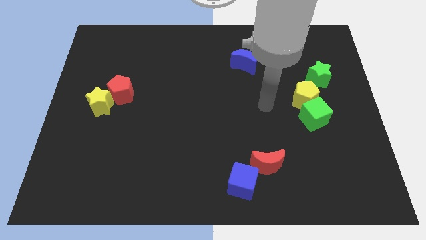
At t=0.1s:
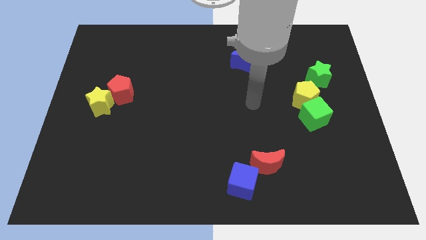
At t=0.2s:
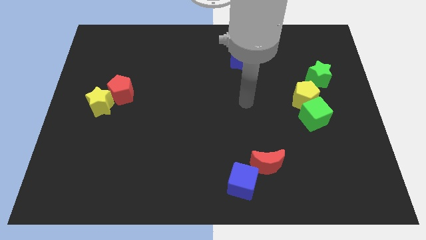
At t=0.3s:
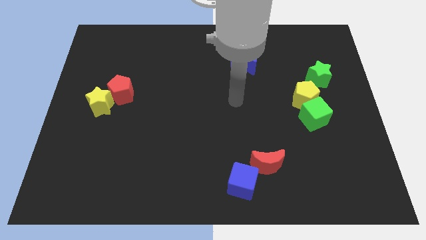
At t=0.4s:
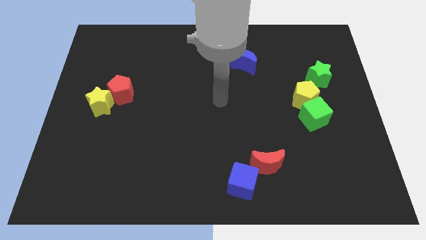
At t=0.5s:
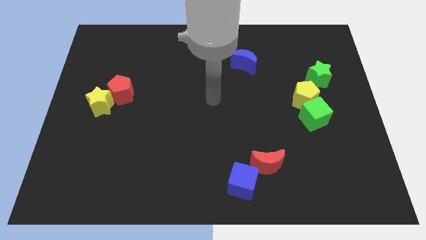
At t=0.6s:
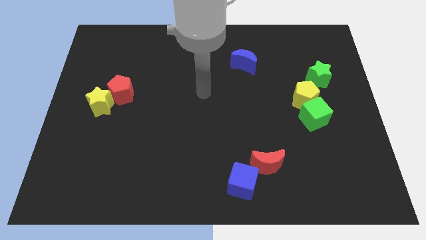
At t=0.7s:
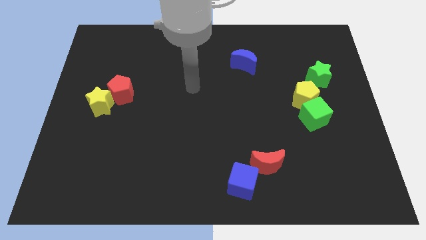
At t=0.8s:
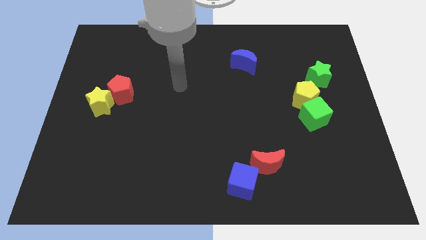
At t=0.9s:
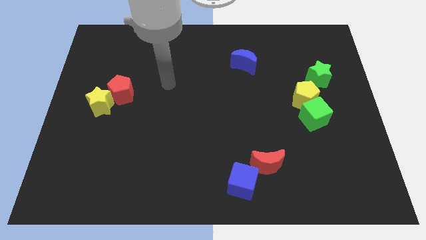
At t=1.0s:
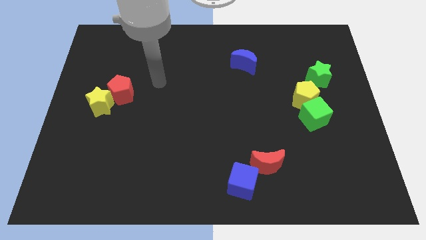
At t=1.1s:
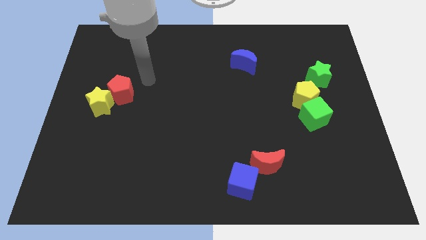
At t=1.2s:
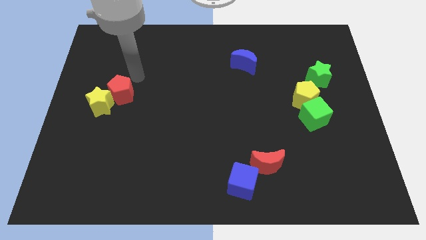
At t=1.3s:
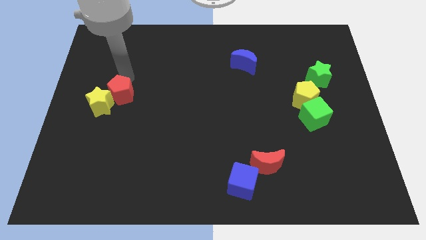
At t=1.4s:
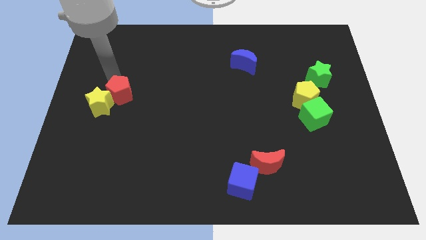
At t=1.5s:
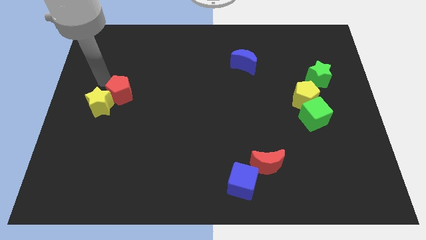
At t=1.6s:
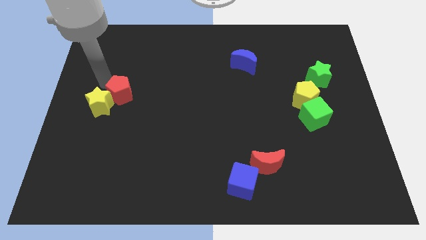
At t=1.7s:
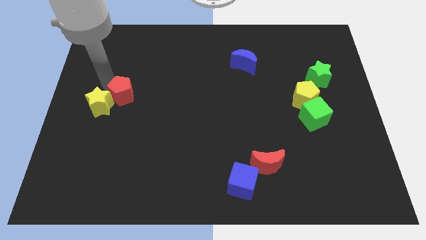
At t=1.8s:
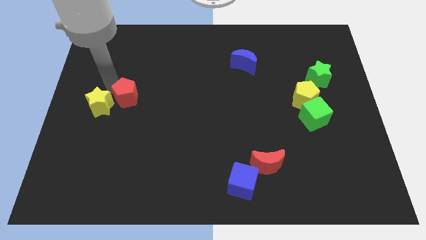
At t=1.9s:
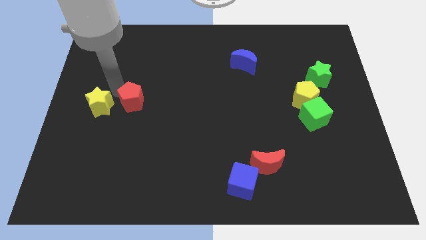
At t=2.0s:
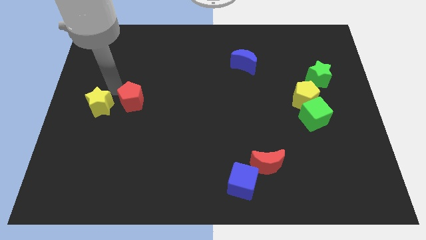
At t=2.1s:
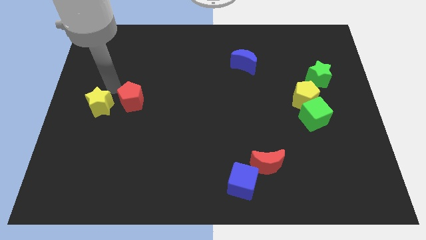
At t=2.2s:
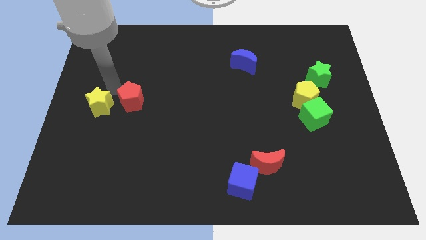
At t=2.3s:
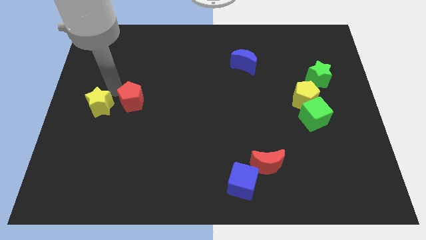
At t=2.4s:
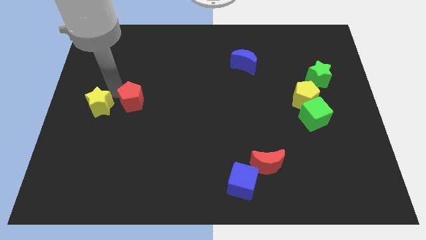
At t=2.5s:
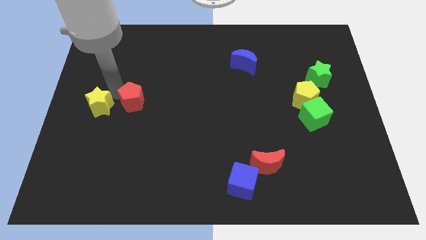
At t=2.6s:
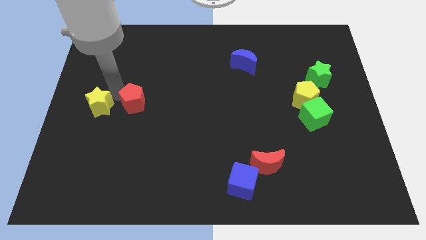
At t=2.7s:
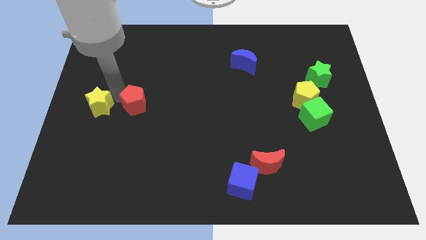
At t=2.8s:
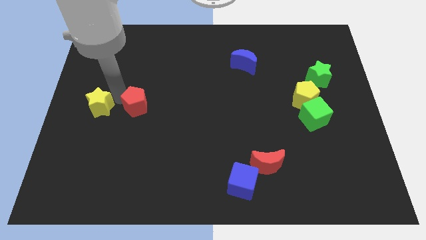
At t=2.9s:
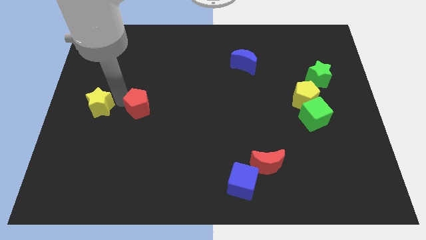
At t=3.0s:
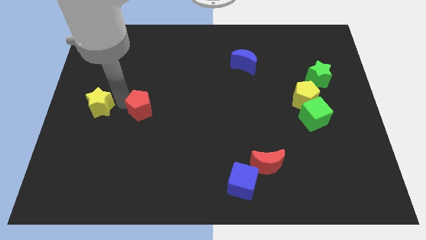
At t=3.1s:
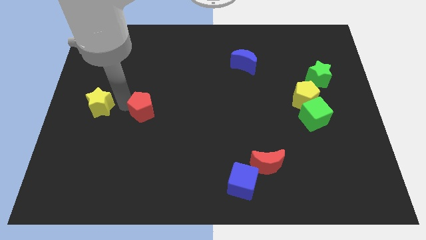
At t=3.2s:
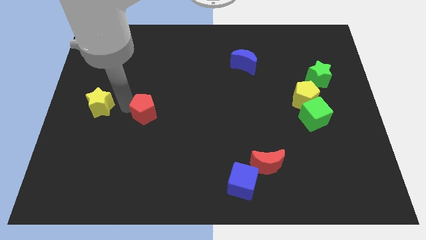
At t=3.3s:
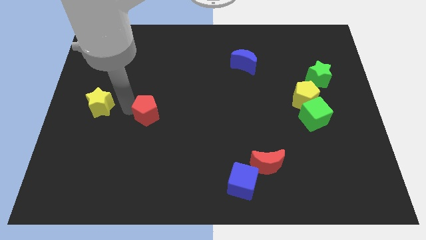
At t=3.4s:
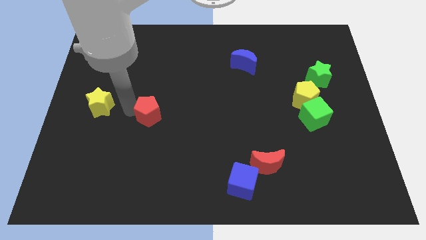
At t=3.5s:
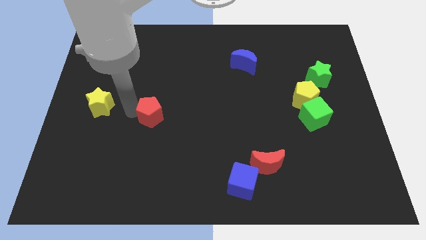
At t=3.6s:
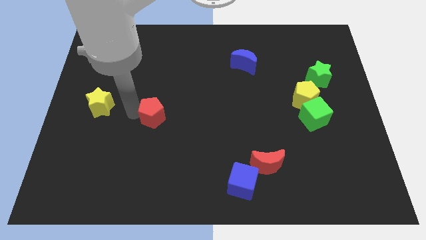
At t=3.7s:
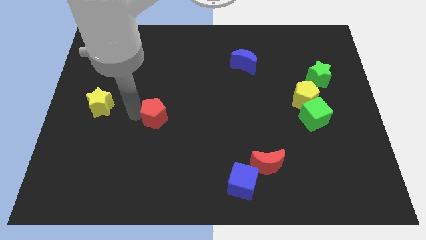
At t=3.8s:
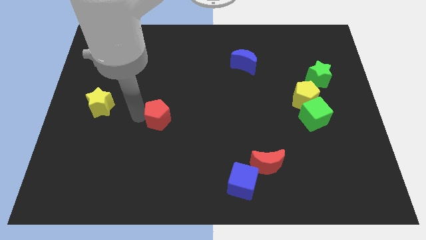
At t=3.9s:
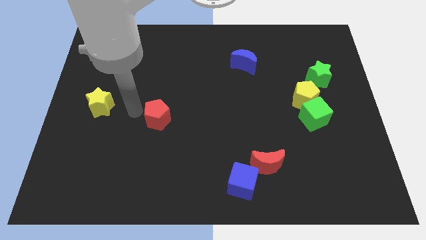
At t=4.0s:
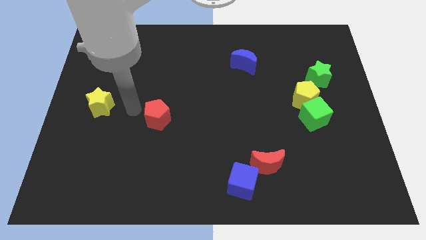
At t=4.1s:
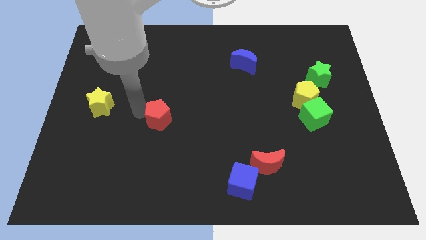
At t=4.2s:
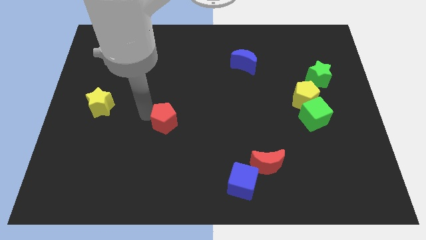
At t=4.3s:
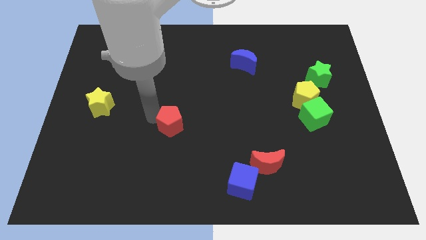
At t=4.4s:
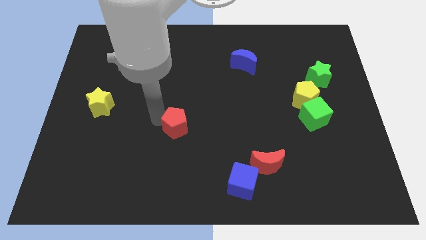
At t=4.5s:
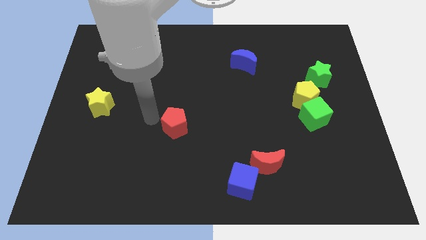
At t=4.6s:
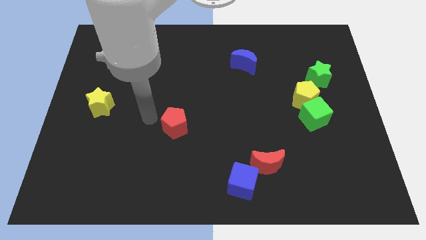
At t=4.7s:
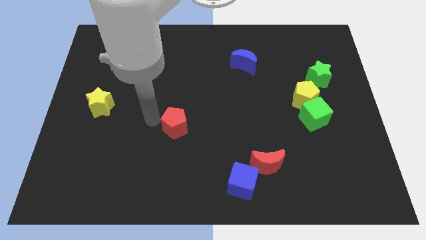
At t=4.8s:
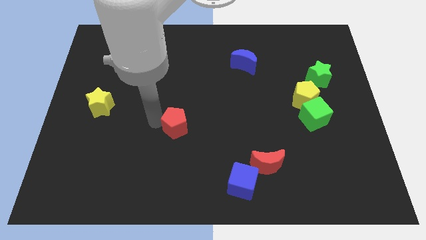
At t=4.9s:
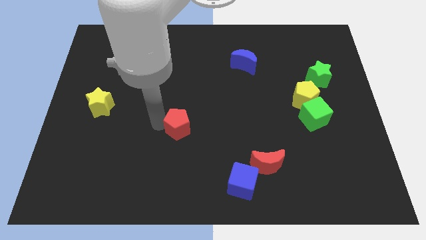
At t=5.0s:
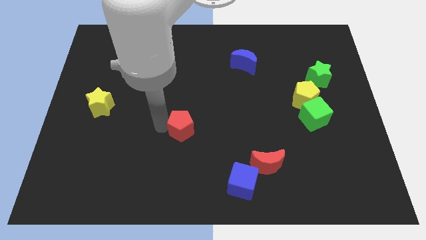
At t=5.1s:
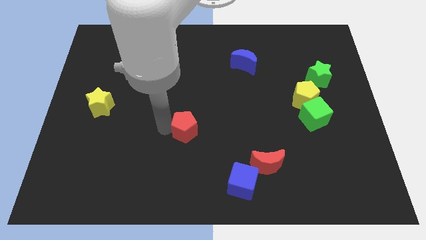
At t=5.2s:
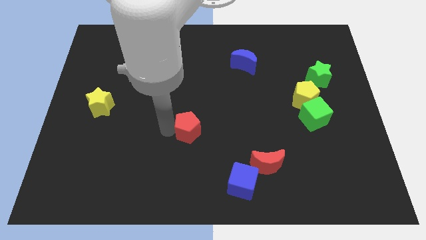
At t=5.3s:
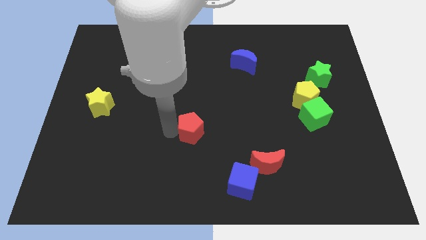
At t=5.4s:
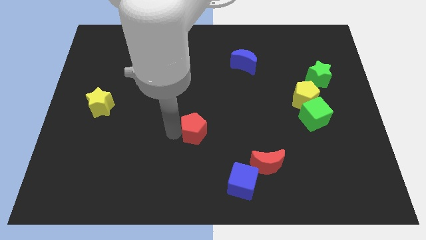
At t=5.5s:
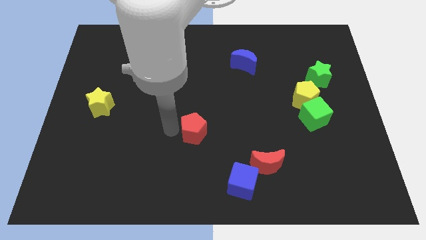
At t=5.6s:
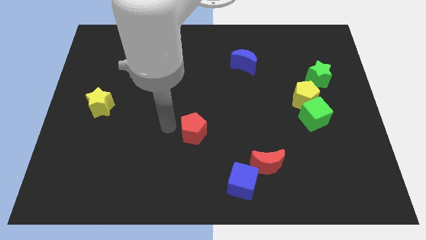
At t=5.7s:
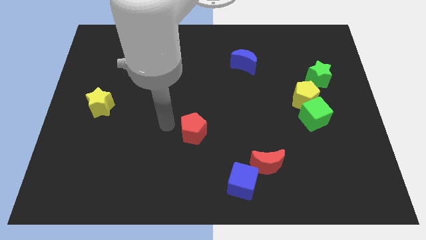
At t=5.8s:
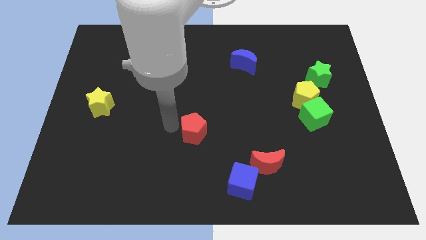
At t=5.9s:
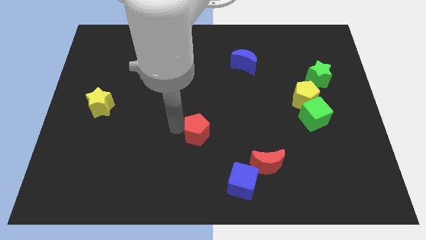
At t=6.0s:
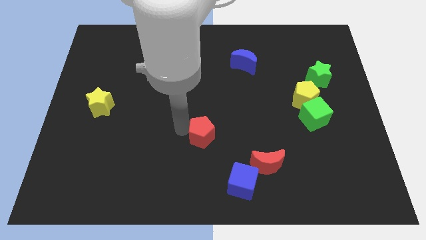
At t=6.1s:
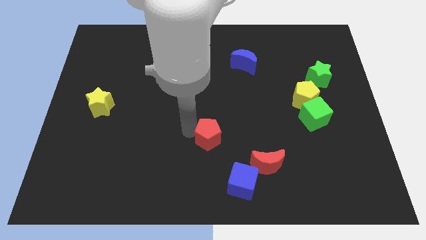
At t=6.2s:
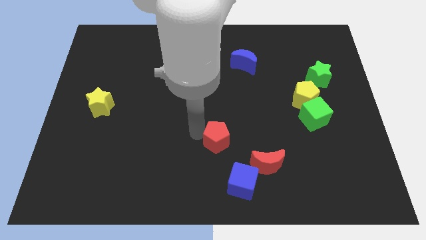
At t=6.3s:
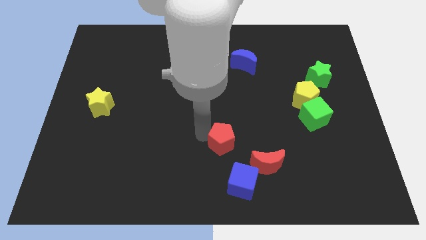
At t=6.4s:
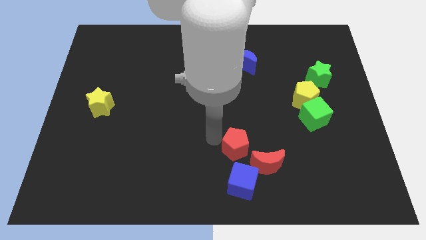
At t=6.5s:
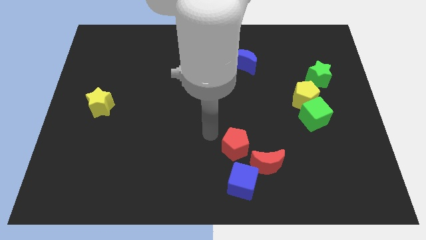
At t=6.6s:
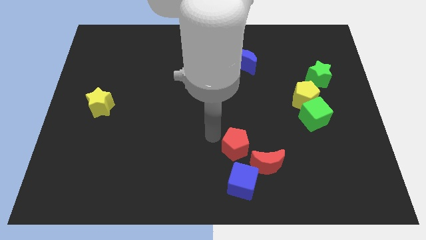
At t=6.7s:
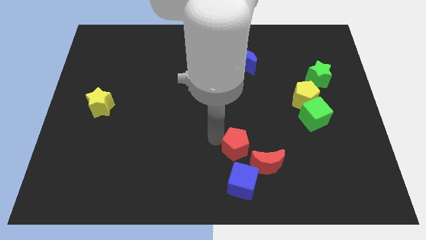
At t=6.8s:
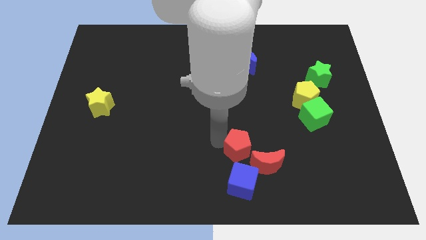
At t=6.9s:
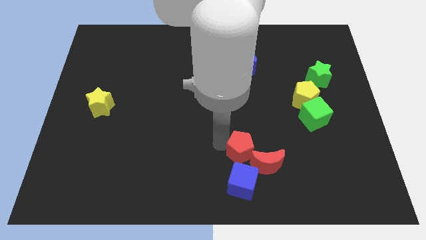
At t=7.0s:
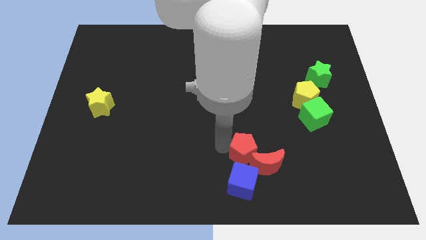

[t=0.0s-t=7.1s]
slide the red pentagon towards the red moon

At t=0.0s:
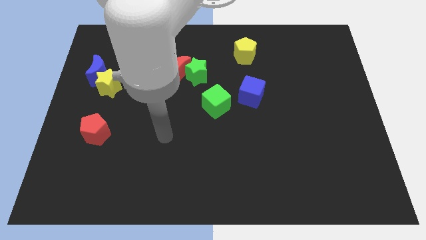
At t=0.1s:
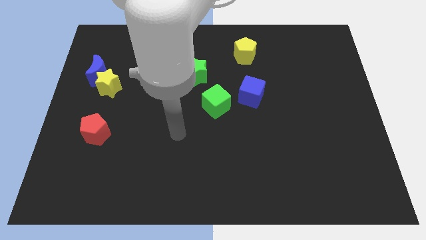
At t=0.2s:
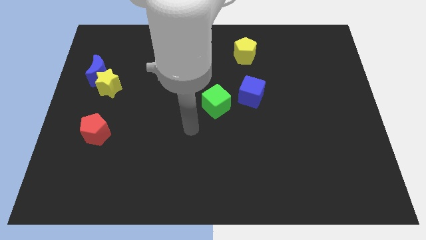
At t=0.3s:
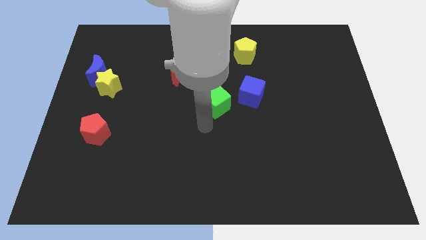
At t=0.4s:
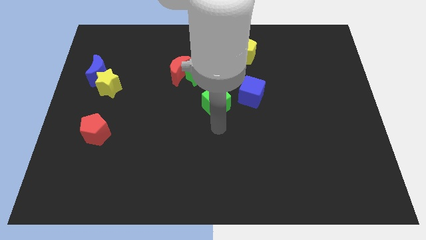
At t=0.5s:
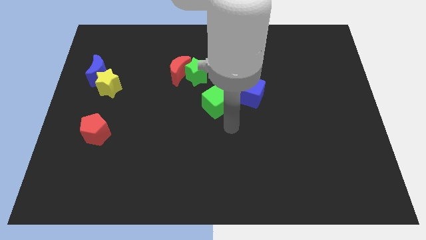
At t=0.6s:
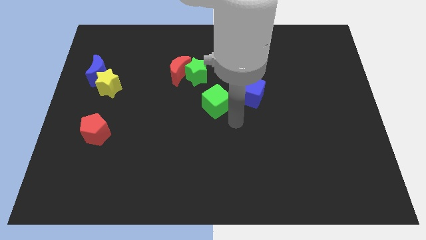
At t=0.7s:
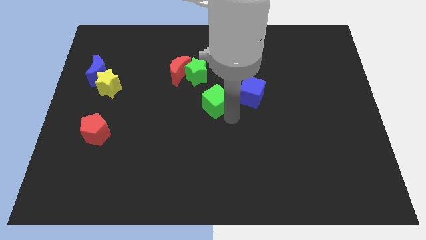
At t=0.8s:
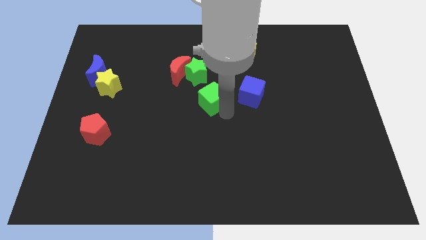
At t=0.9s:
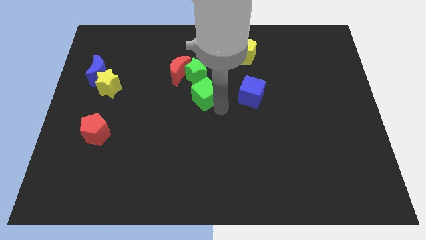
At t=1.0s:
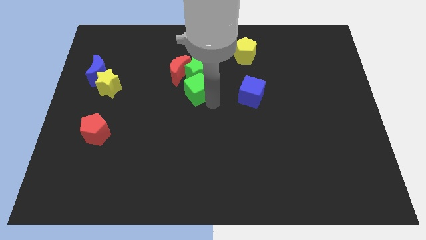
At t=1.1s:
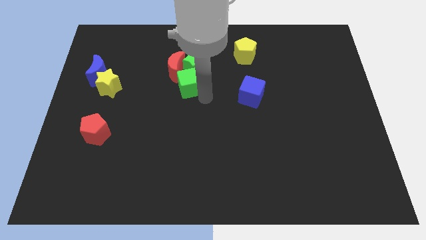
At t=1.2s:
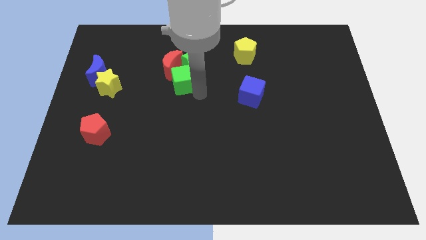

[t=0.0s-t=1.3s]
move the green cube towards the red moon

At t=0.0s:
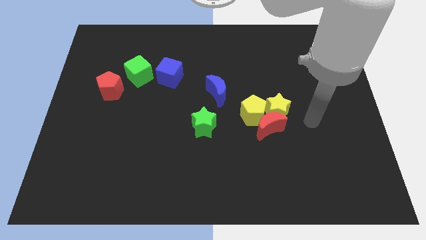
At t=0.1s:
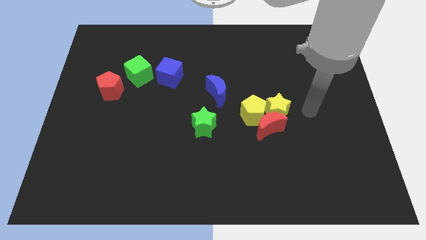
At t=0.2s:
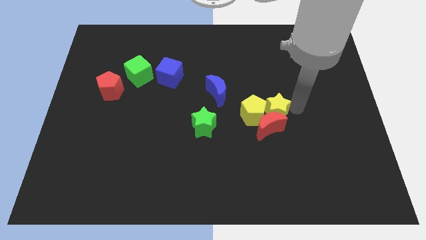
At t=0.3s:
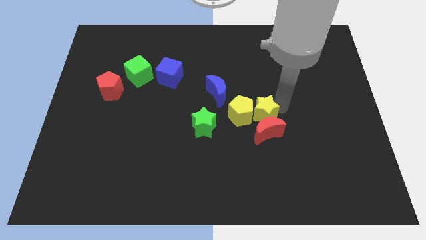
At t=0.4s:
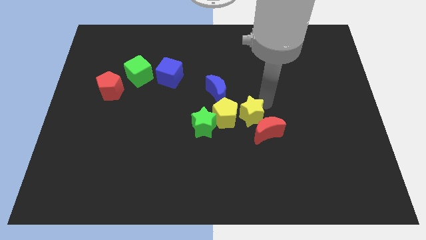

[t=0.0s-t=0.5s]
put the yellow pentagon close to the green star
